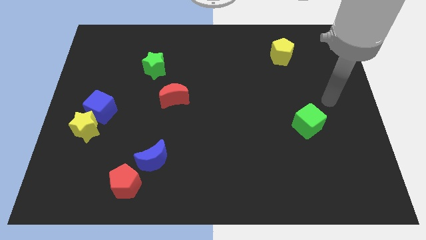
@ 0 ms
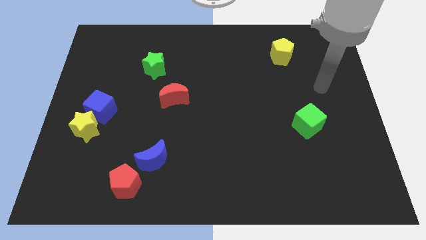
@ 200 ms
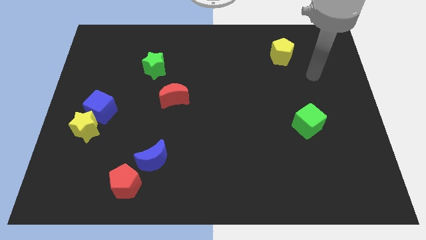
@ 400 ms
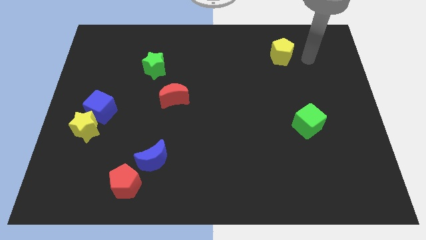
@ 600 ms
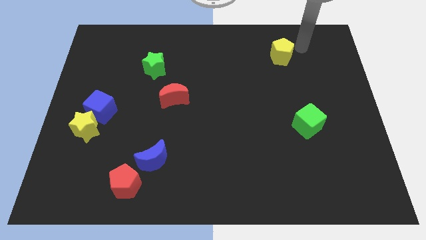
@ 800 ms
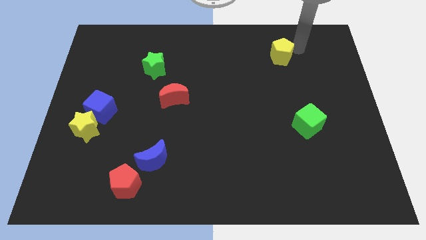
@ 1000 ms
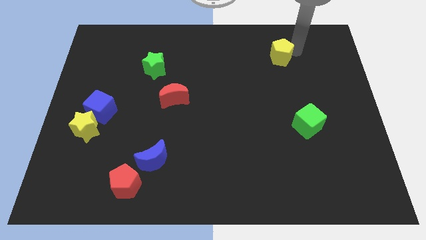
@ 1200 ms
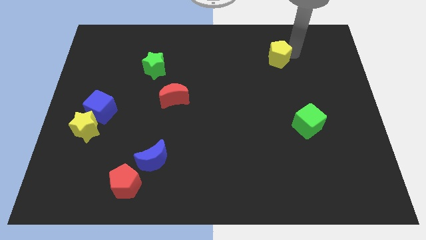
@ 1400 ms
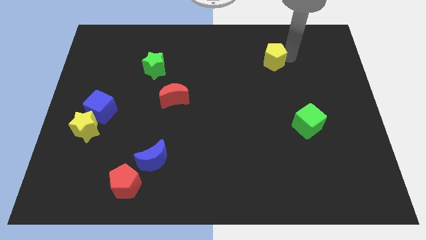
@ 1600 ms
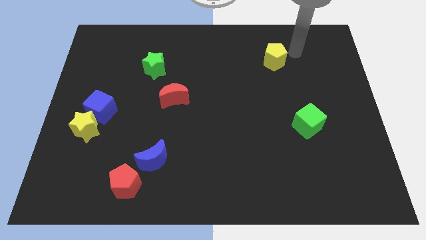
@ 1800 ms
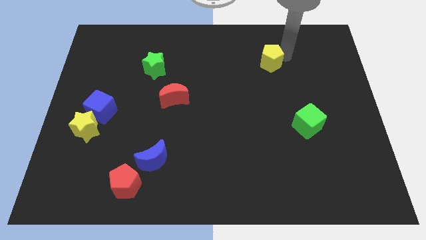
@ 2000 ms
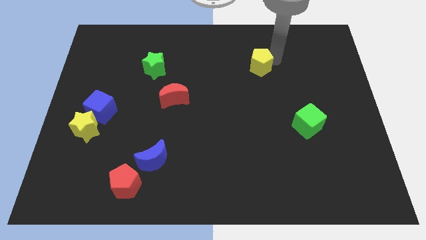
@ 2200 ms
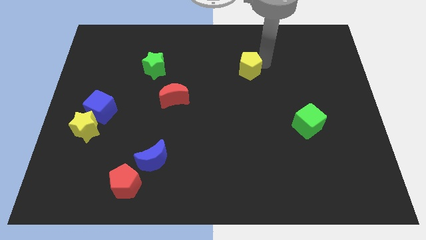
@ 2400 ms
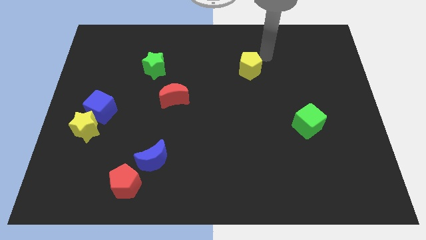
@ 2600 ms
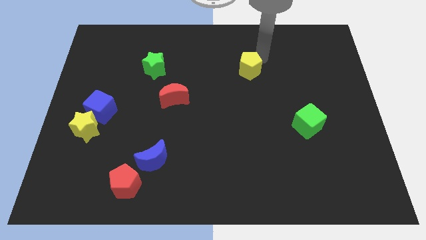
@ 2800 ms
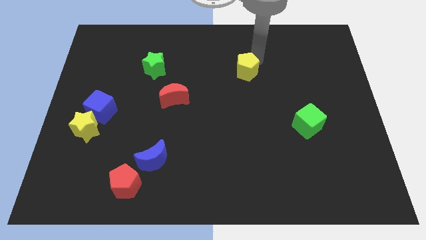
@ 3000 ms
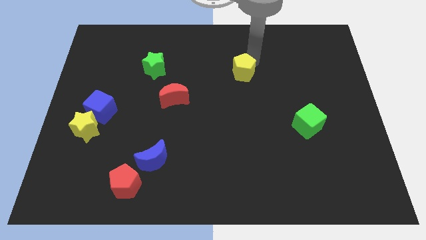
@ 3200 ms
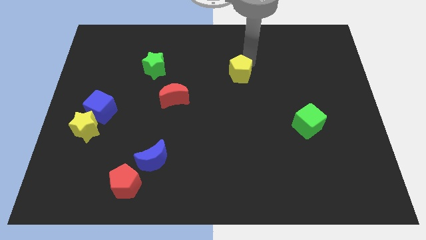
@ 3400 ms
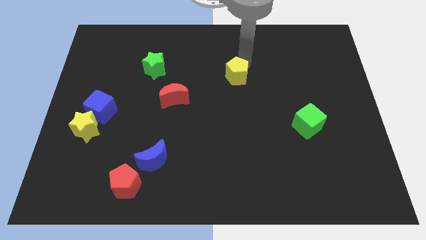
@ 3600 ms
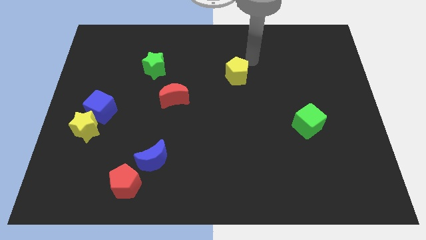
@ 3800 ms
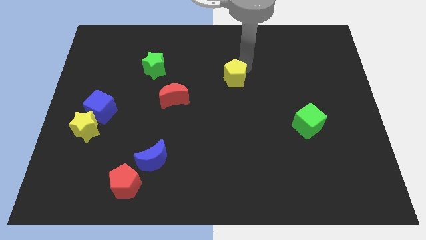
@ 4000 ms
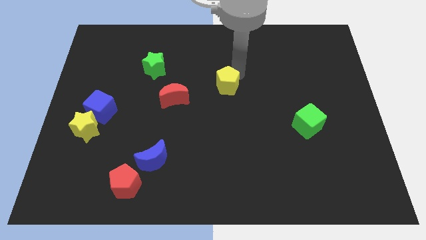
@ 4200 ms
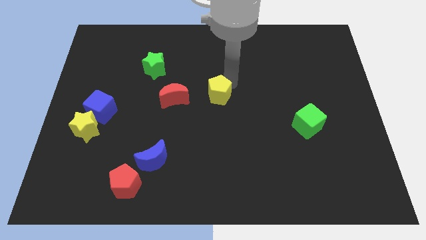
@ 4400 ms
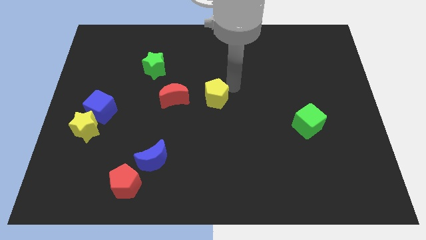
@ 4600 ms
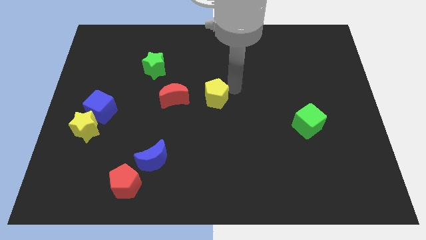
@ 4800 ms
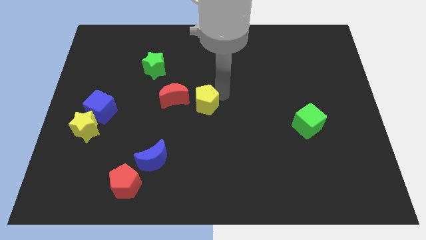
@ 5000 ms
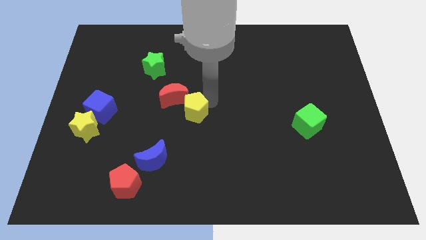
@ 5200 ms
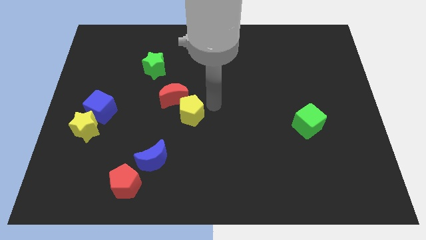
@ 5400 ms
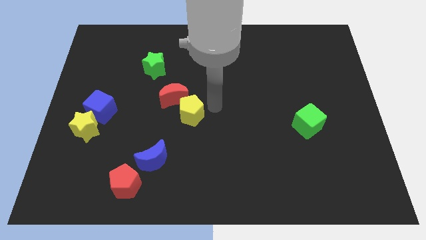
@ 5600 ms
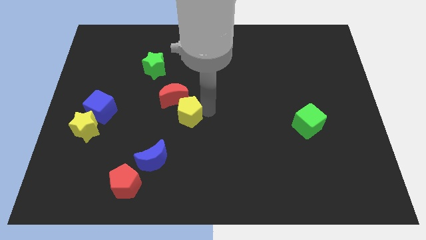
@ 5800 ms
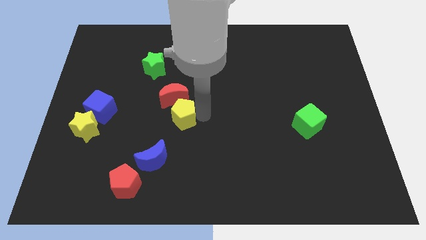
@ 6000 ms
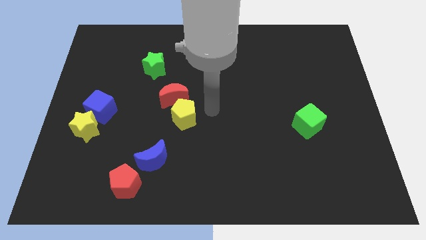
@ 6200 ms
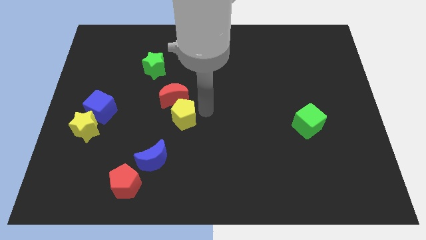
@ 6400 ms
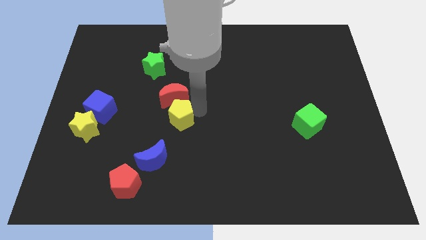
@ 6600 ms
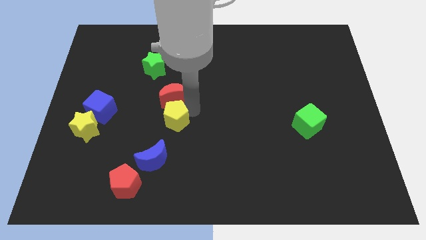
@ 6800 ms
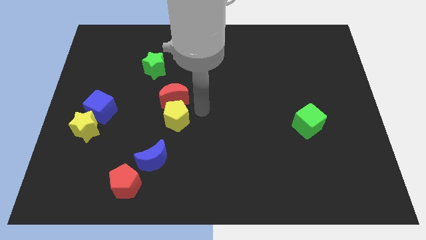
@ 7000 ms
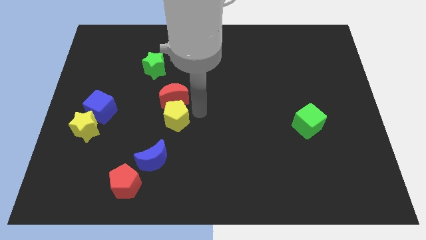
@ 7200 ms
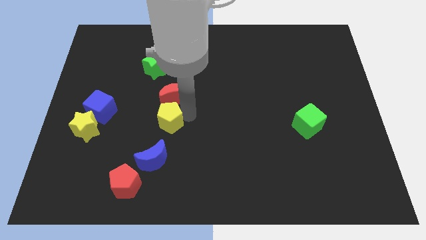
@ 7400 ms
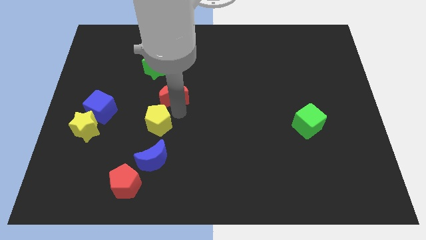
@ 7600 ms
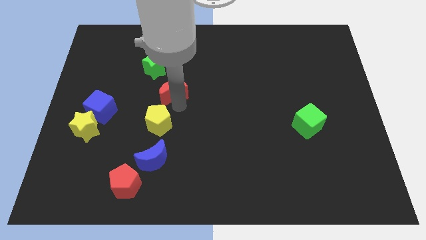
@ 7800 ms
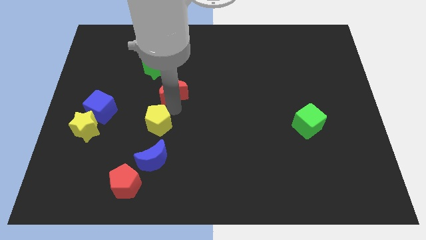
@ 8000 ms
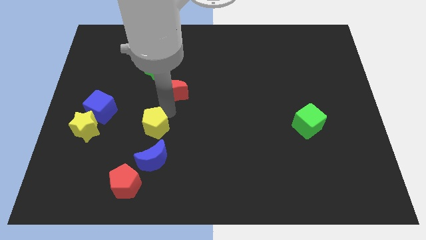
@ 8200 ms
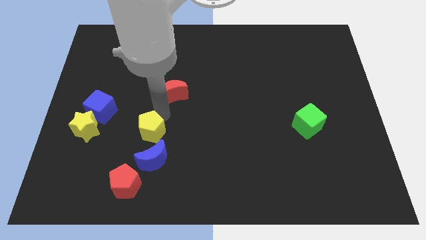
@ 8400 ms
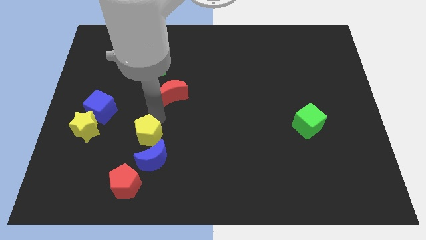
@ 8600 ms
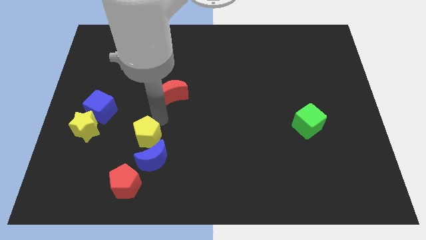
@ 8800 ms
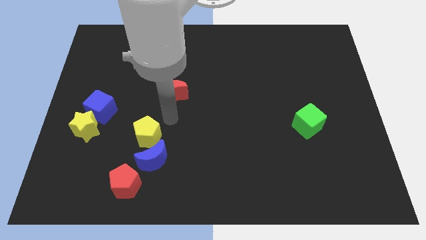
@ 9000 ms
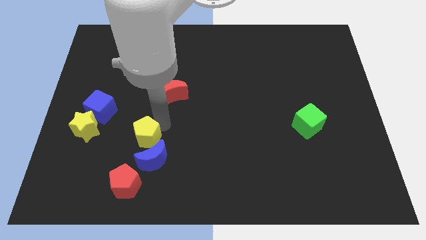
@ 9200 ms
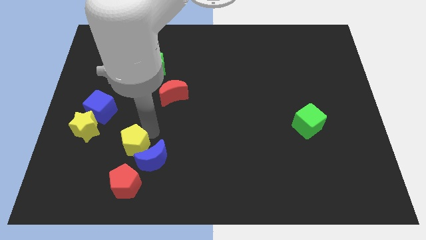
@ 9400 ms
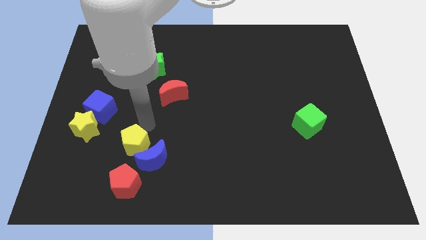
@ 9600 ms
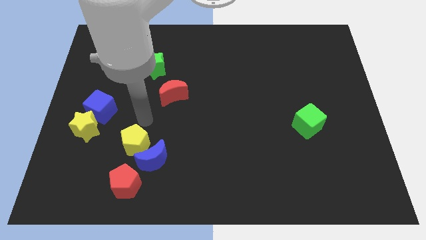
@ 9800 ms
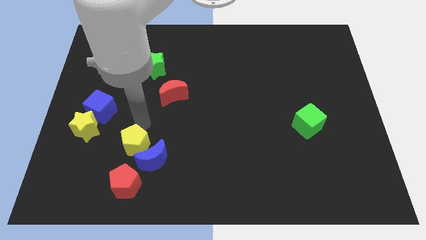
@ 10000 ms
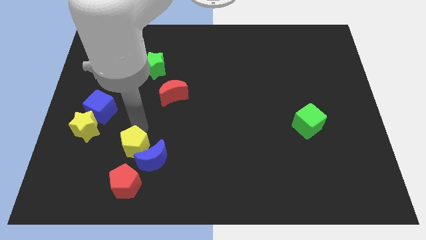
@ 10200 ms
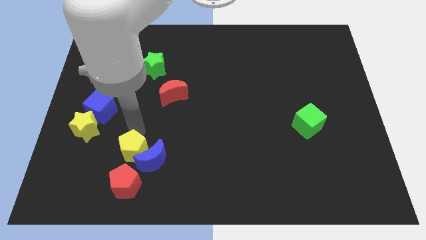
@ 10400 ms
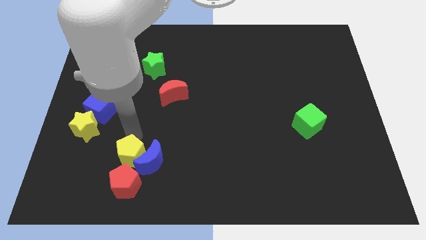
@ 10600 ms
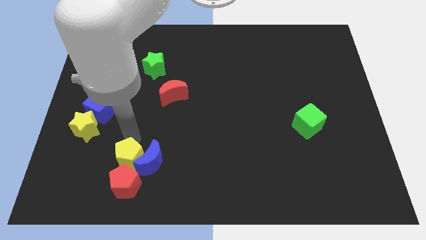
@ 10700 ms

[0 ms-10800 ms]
put the yellow pentagon next to the red pentagon

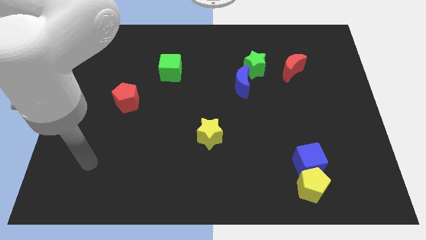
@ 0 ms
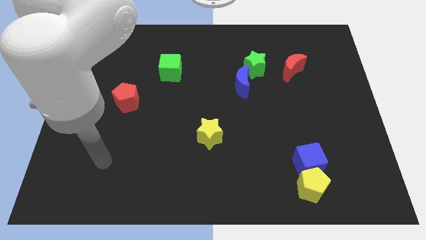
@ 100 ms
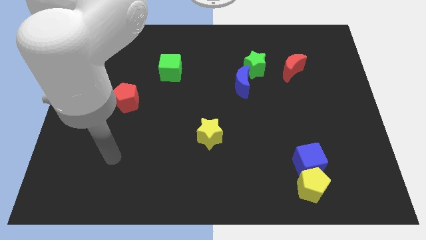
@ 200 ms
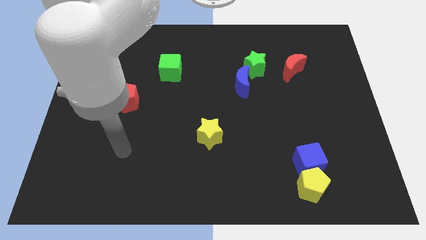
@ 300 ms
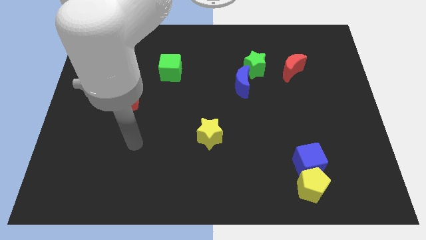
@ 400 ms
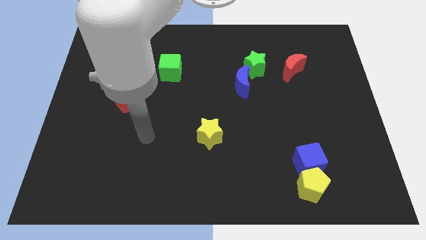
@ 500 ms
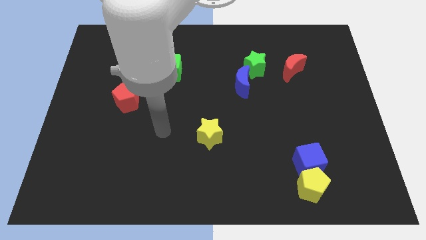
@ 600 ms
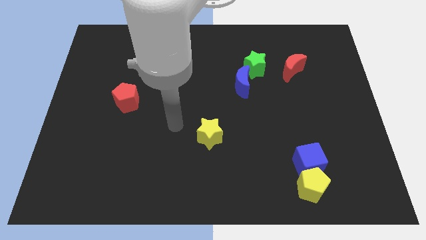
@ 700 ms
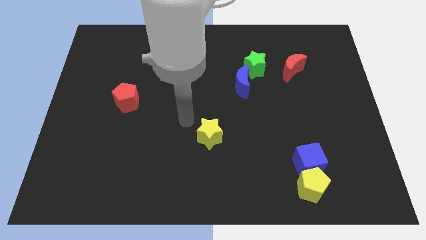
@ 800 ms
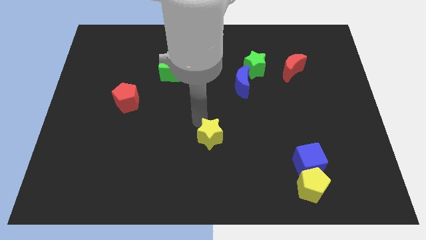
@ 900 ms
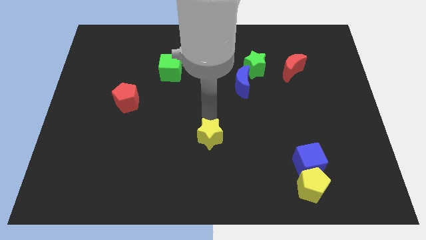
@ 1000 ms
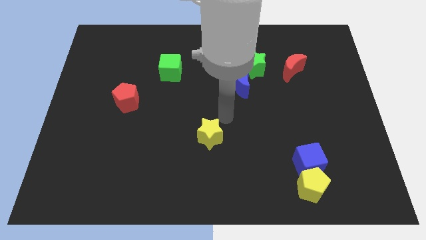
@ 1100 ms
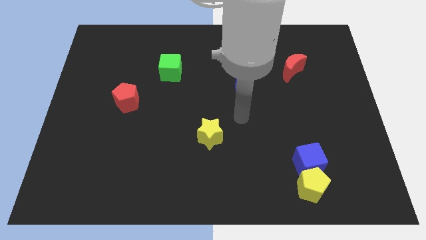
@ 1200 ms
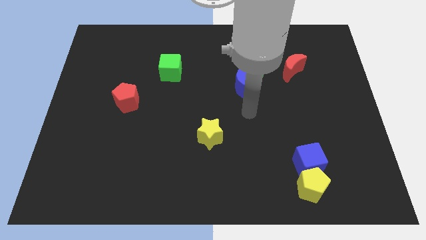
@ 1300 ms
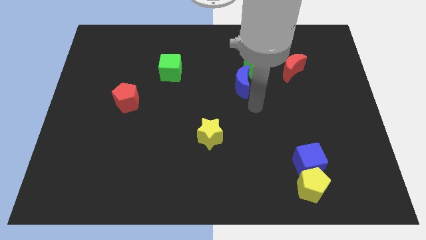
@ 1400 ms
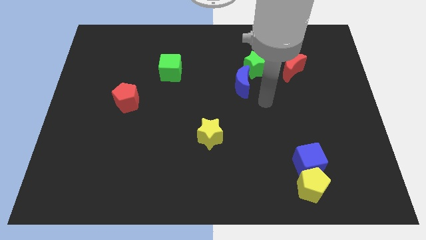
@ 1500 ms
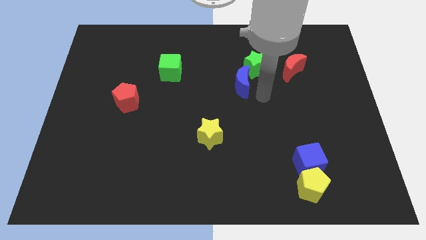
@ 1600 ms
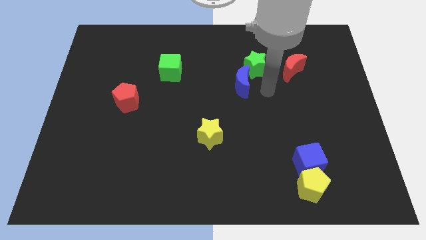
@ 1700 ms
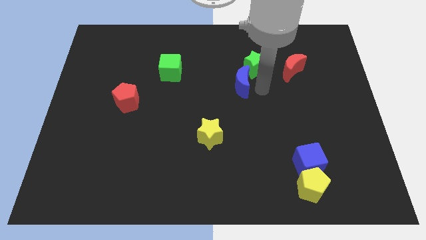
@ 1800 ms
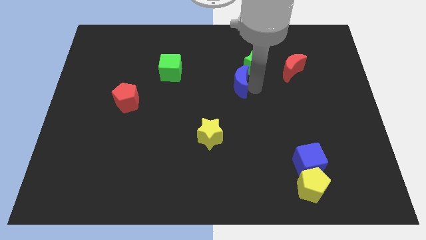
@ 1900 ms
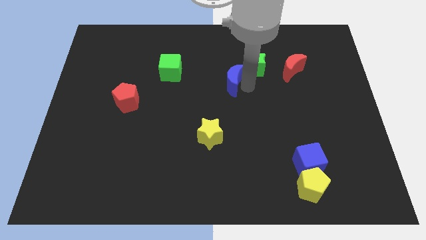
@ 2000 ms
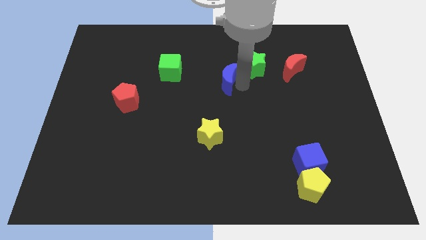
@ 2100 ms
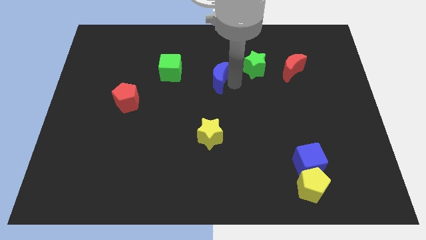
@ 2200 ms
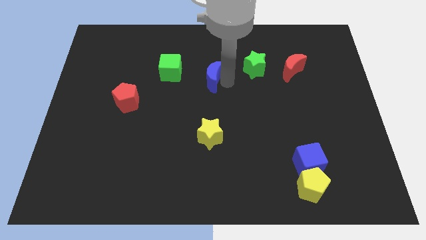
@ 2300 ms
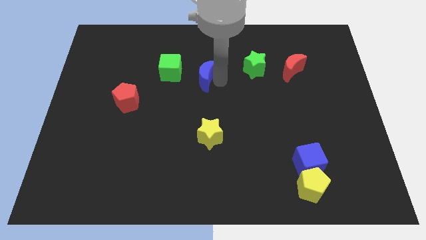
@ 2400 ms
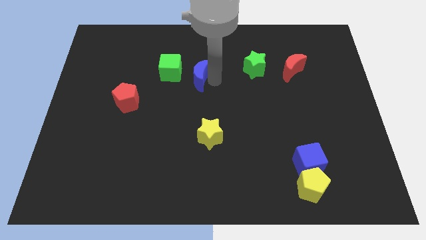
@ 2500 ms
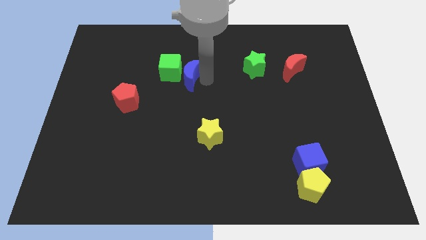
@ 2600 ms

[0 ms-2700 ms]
move the blue moon next to the green cube
